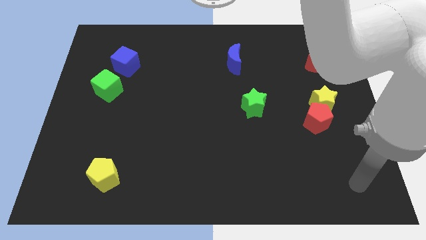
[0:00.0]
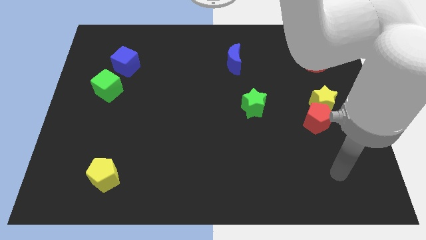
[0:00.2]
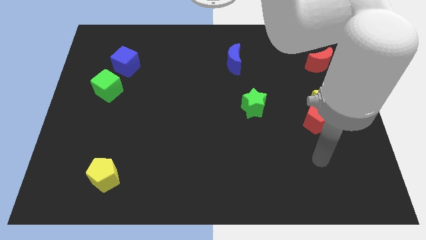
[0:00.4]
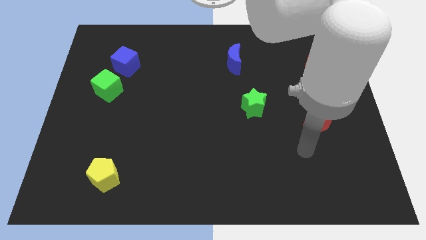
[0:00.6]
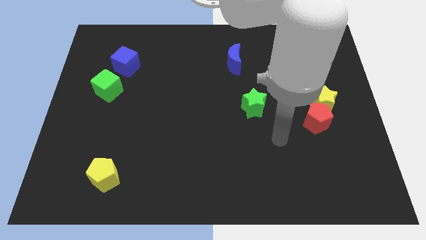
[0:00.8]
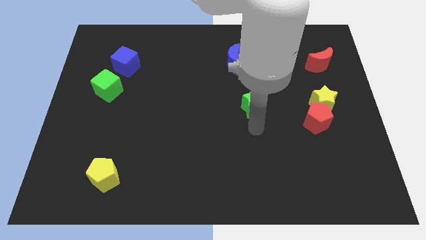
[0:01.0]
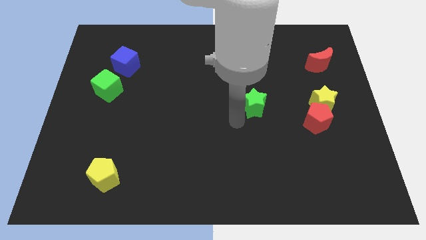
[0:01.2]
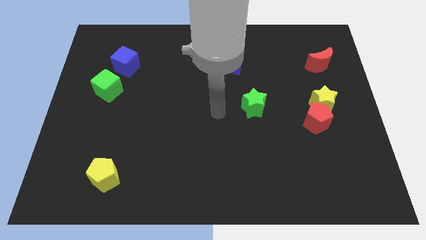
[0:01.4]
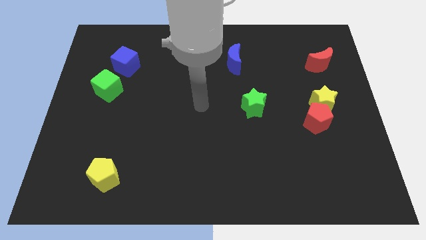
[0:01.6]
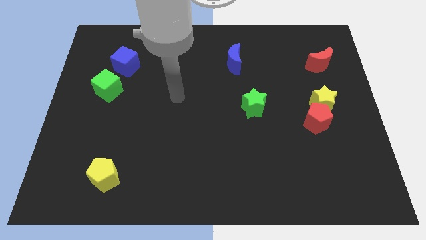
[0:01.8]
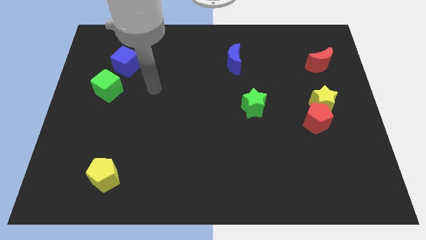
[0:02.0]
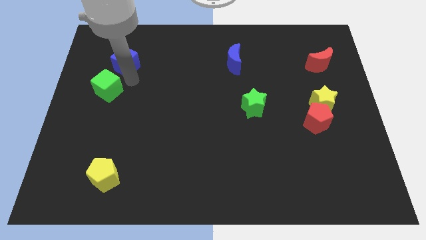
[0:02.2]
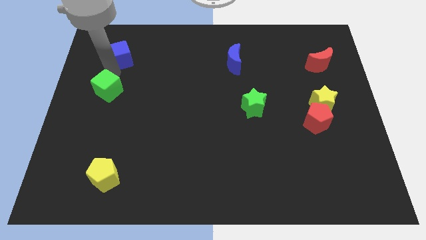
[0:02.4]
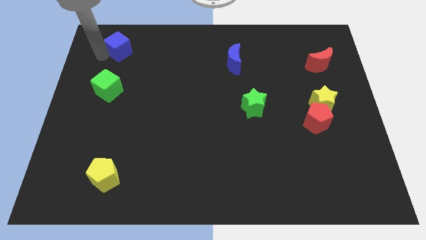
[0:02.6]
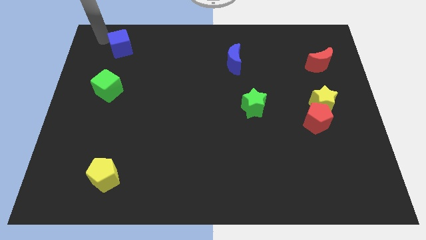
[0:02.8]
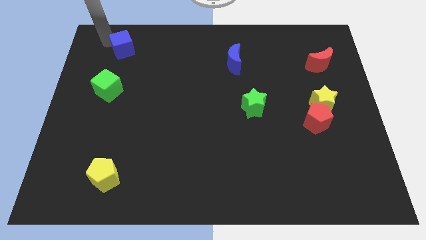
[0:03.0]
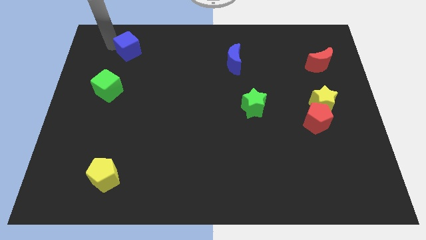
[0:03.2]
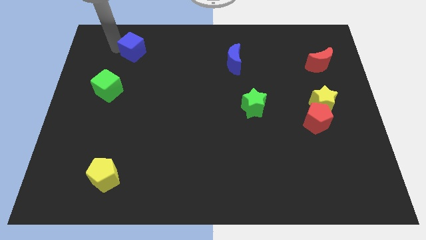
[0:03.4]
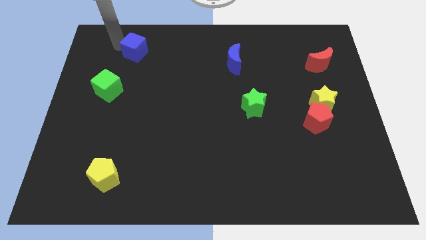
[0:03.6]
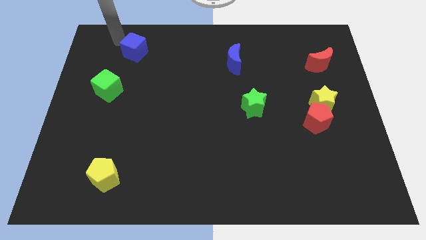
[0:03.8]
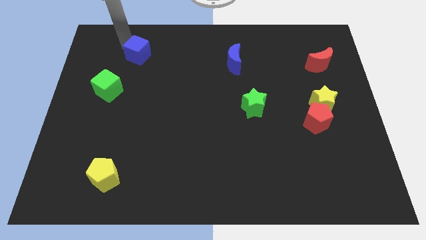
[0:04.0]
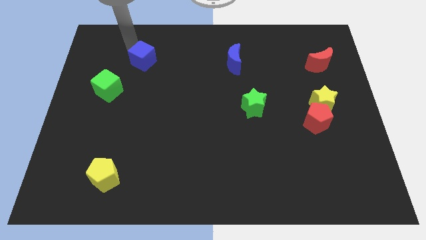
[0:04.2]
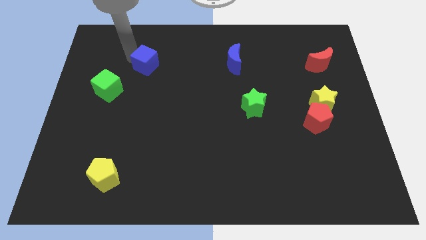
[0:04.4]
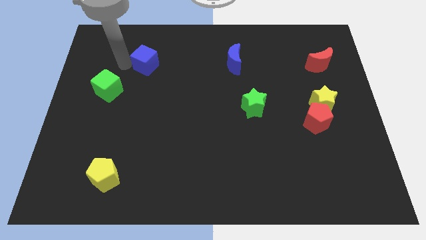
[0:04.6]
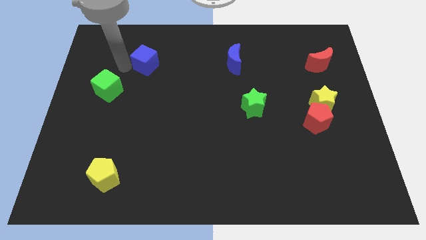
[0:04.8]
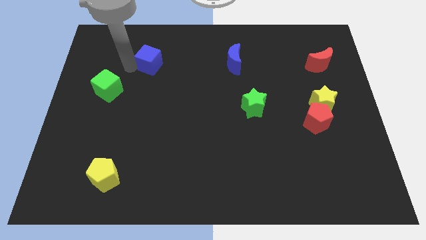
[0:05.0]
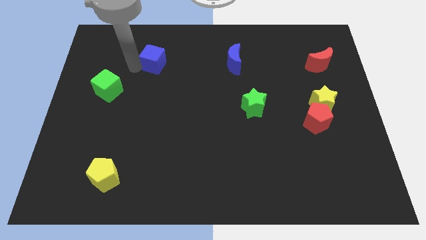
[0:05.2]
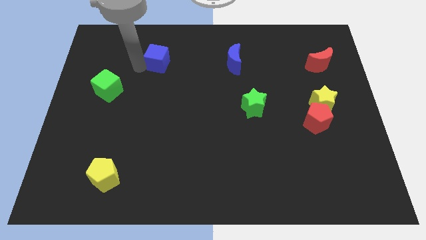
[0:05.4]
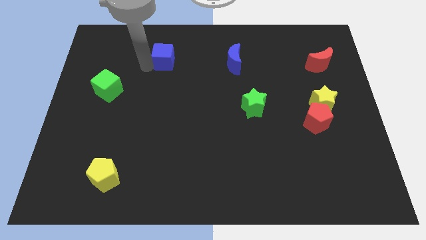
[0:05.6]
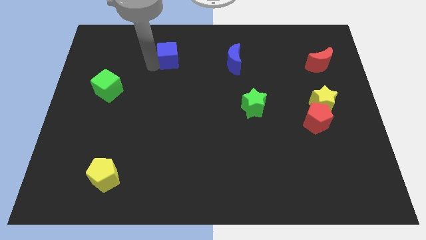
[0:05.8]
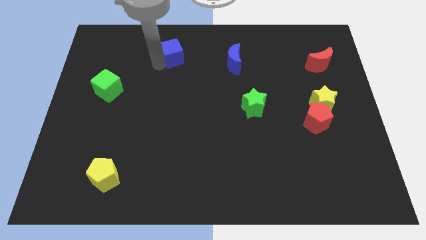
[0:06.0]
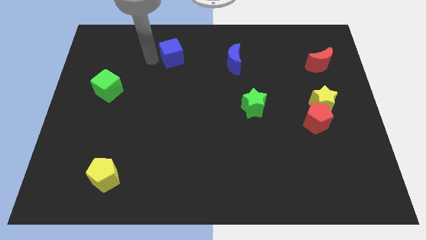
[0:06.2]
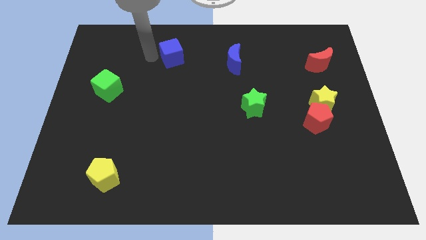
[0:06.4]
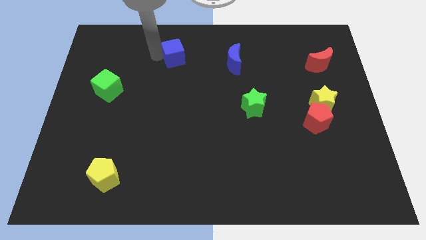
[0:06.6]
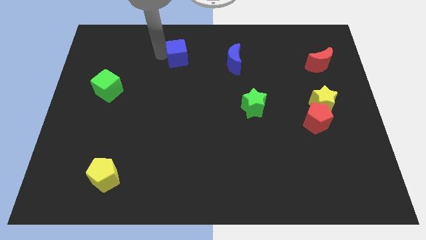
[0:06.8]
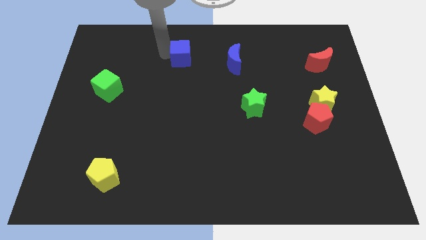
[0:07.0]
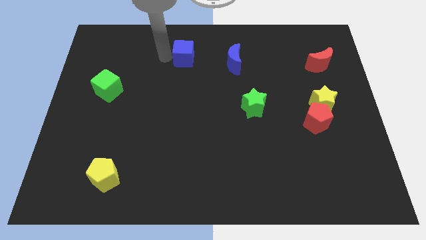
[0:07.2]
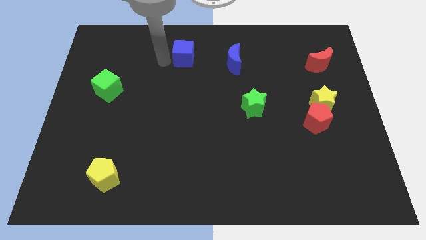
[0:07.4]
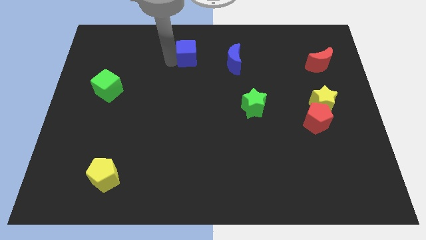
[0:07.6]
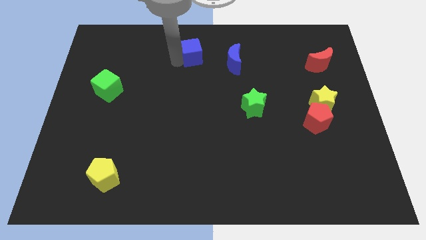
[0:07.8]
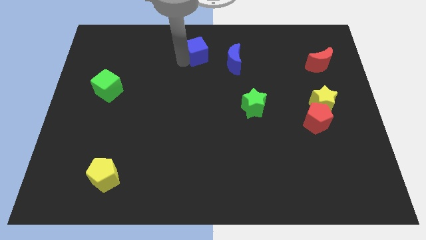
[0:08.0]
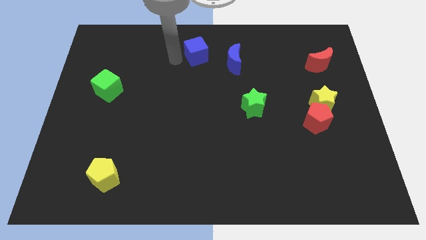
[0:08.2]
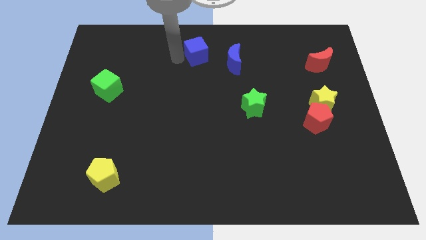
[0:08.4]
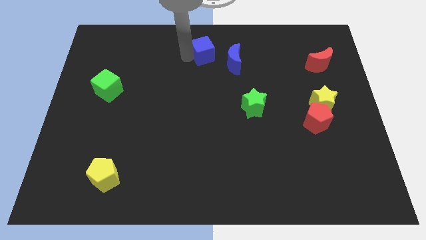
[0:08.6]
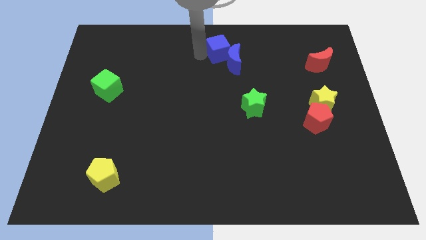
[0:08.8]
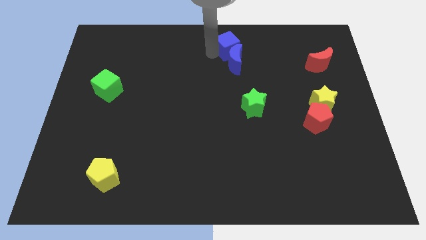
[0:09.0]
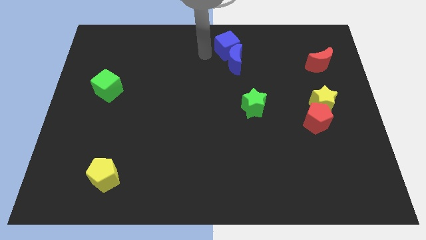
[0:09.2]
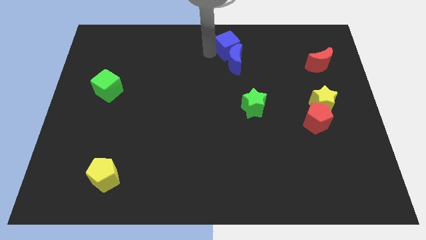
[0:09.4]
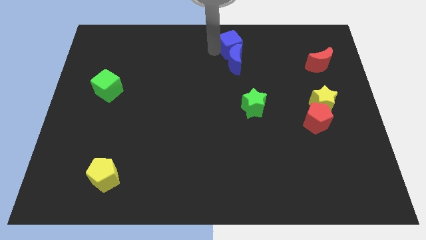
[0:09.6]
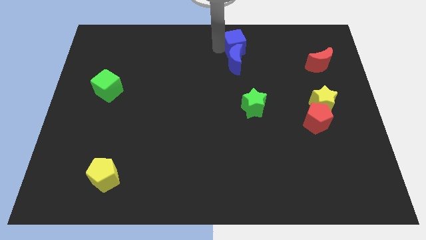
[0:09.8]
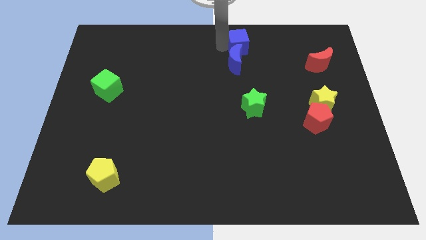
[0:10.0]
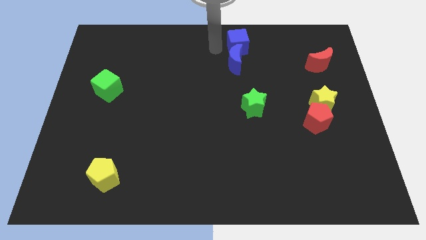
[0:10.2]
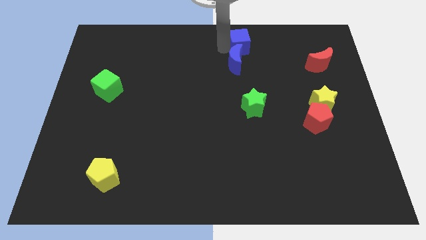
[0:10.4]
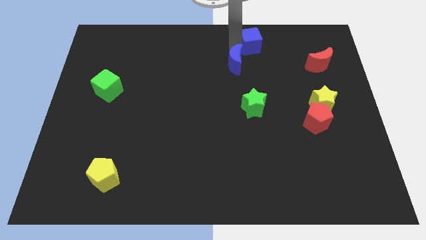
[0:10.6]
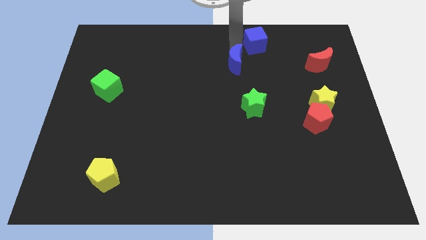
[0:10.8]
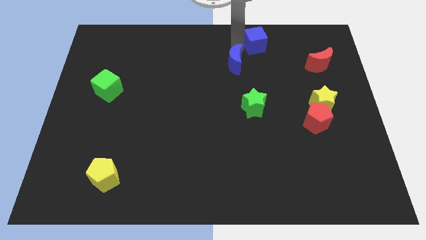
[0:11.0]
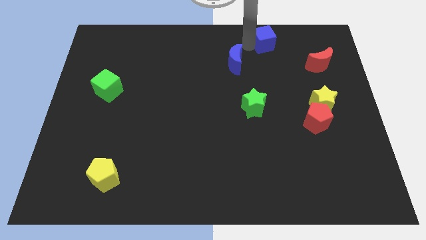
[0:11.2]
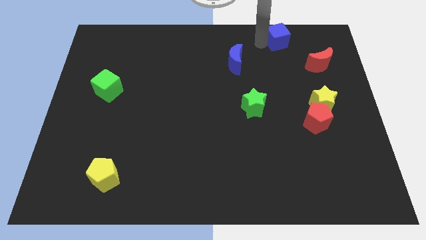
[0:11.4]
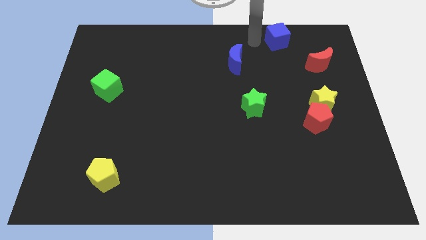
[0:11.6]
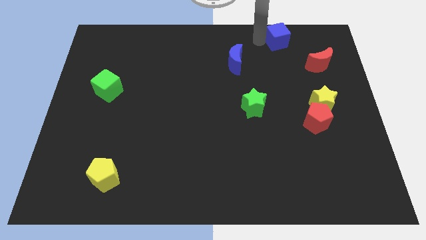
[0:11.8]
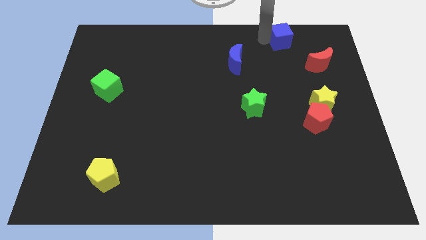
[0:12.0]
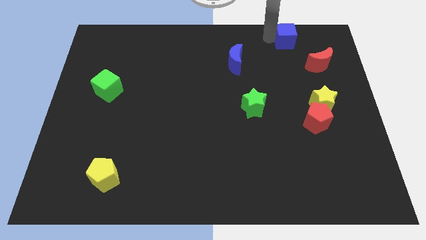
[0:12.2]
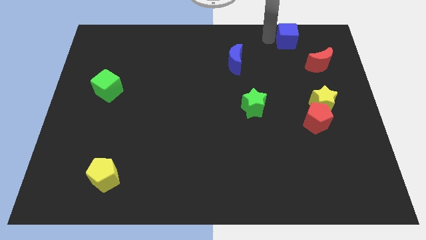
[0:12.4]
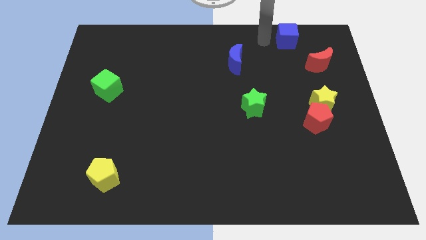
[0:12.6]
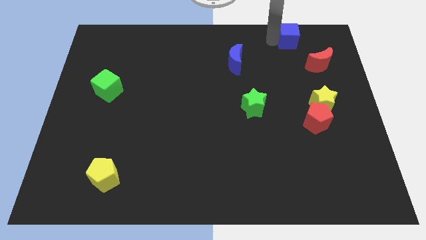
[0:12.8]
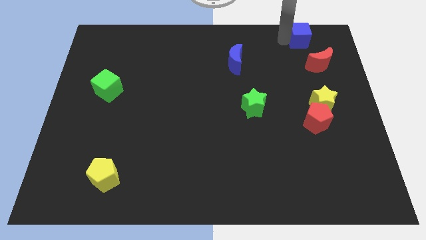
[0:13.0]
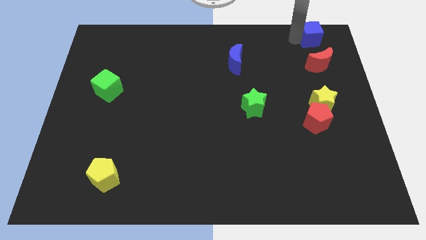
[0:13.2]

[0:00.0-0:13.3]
put the blue cube to the upper right corner
